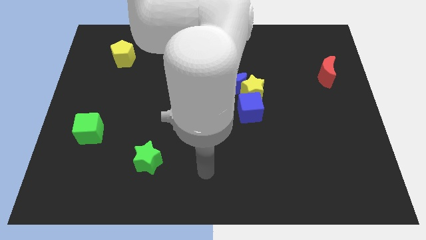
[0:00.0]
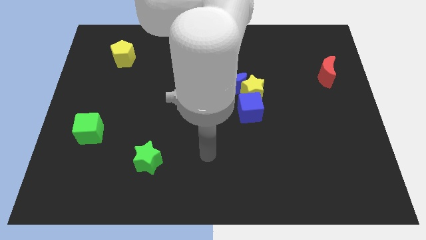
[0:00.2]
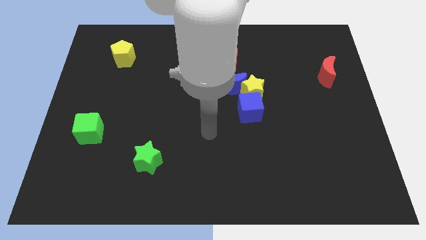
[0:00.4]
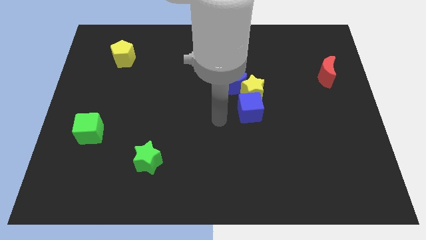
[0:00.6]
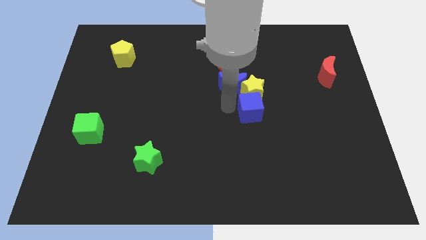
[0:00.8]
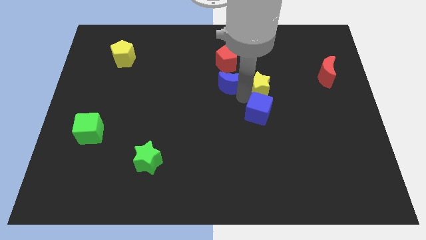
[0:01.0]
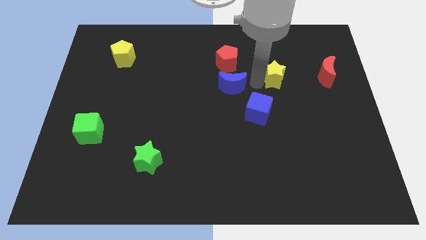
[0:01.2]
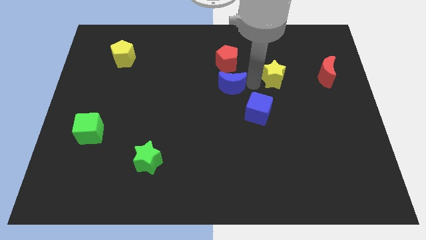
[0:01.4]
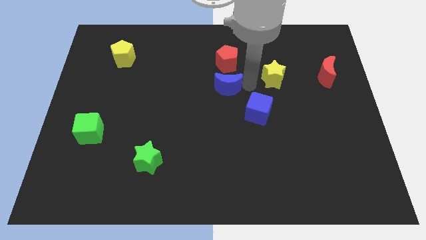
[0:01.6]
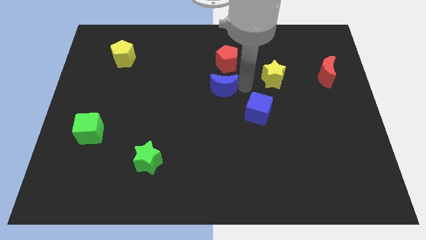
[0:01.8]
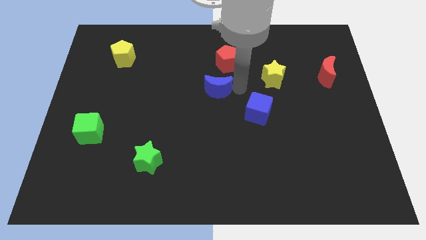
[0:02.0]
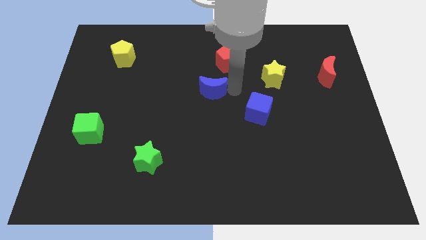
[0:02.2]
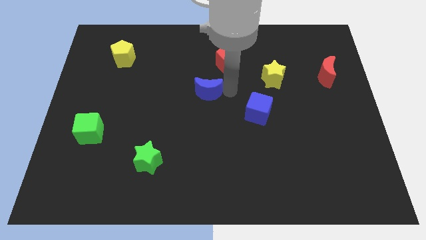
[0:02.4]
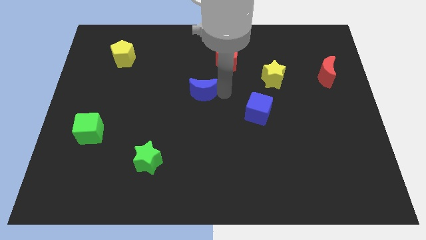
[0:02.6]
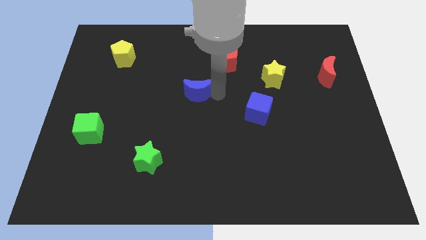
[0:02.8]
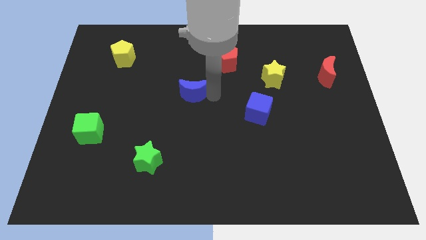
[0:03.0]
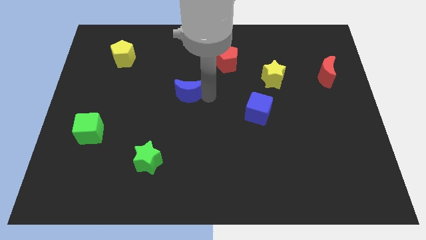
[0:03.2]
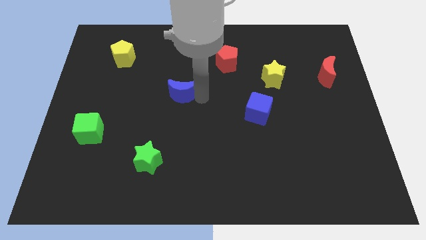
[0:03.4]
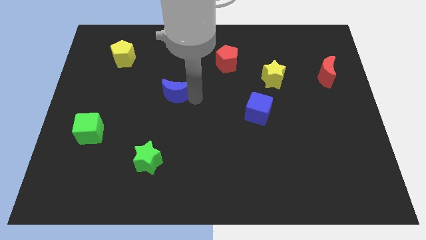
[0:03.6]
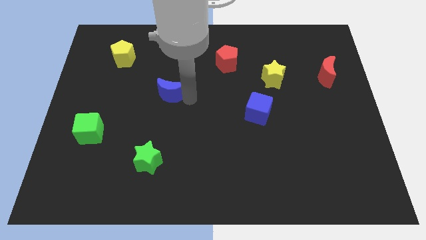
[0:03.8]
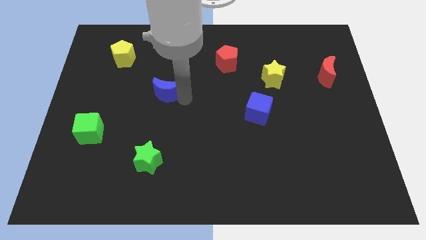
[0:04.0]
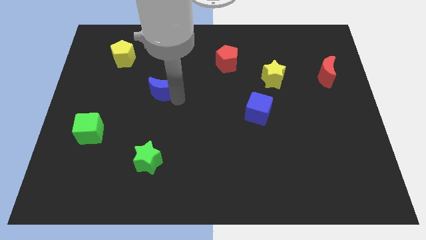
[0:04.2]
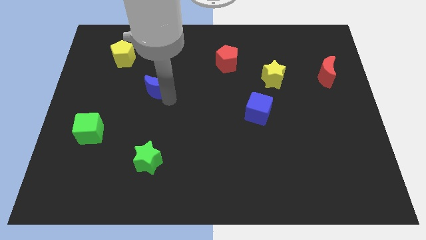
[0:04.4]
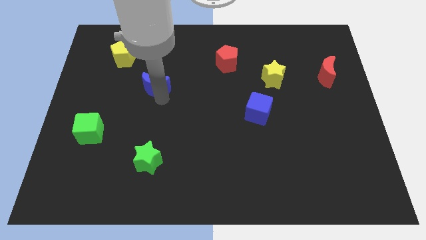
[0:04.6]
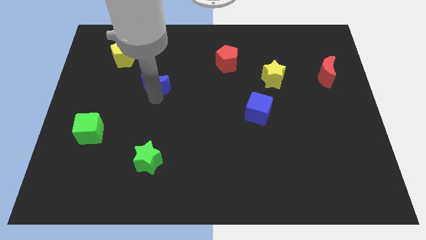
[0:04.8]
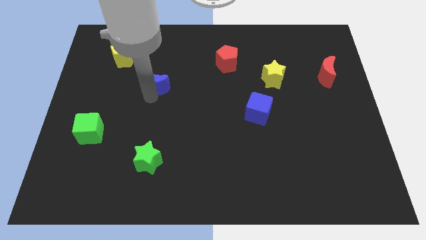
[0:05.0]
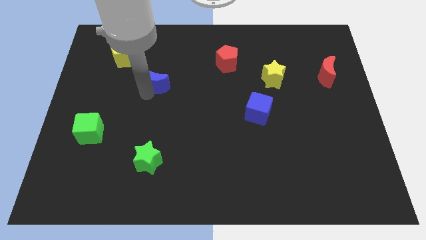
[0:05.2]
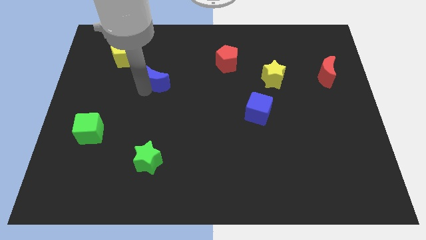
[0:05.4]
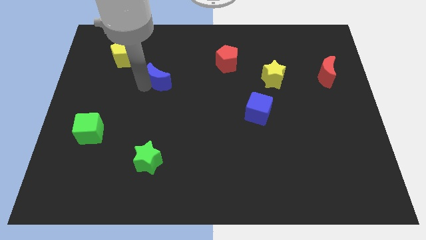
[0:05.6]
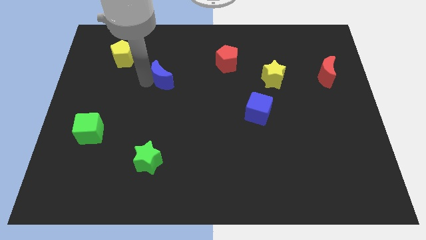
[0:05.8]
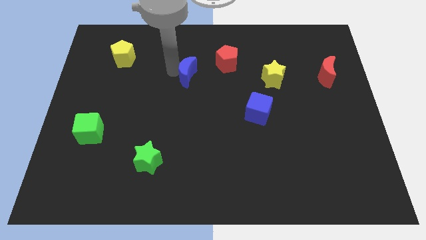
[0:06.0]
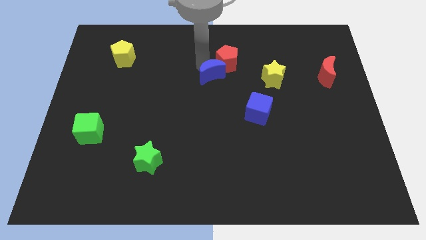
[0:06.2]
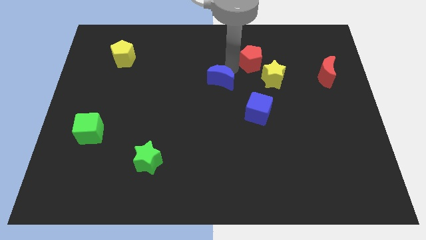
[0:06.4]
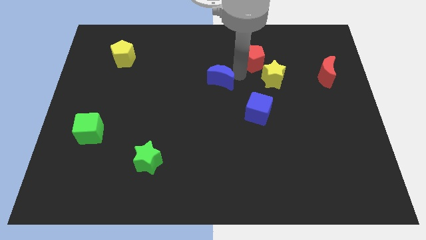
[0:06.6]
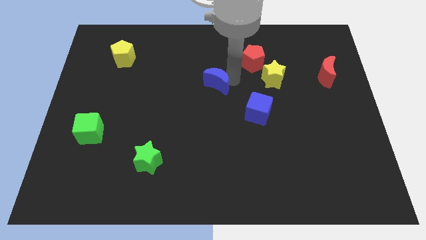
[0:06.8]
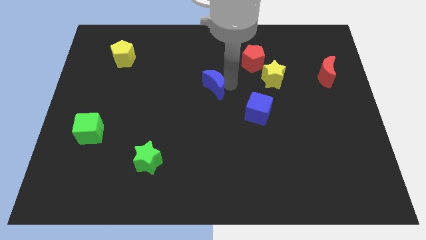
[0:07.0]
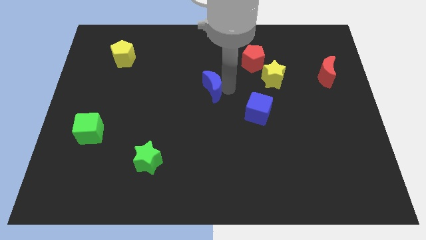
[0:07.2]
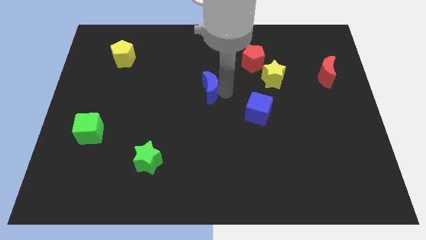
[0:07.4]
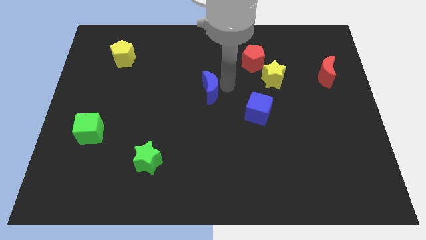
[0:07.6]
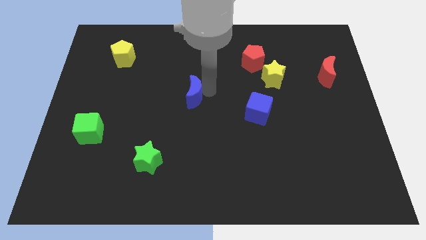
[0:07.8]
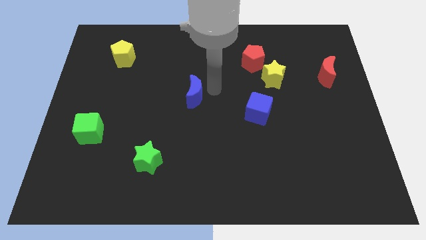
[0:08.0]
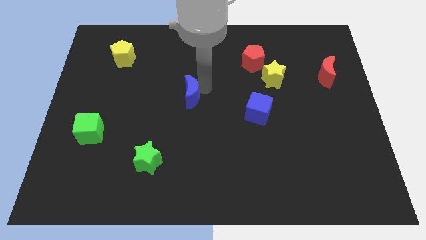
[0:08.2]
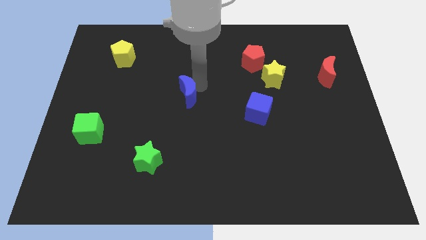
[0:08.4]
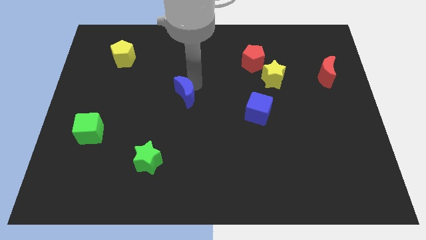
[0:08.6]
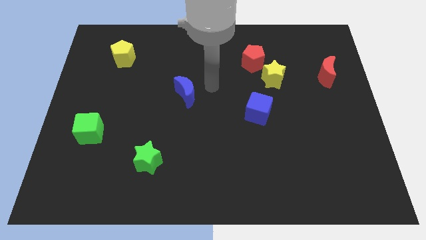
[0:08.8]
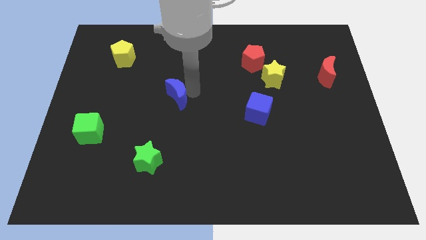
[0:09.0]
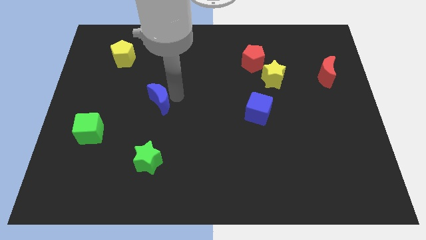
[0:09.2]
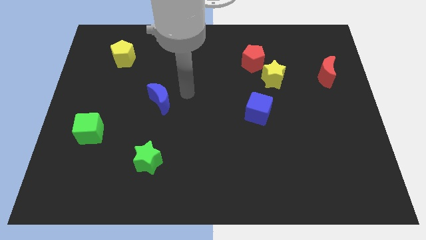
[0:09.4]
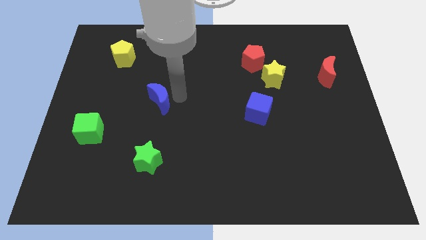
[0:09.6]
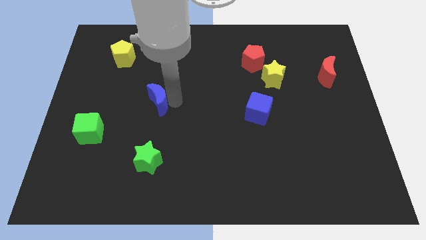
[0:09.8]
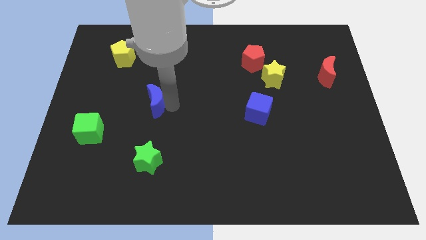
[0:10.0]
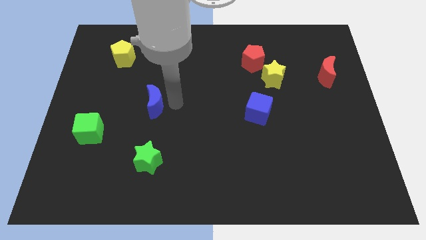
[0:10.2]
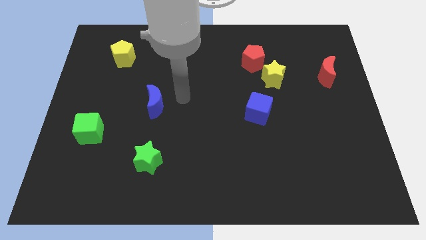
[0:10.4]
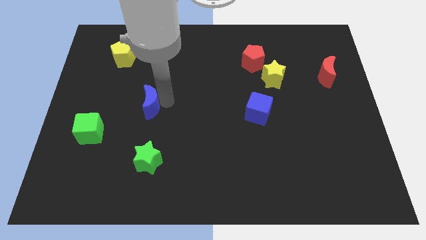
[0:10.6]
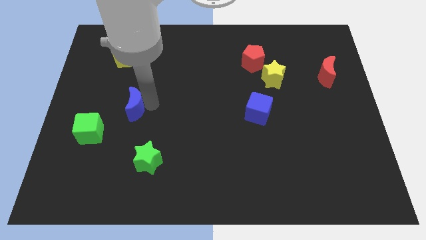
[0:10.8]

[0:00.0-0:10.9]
put the blue moon to the top right side of the green cube

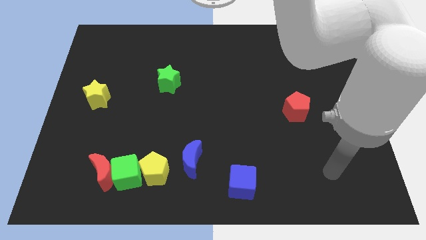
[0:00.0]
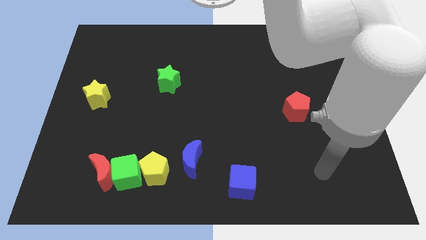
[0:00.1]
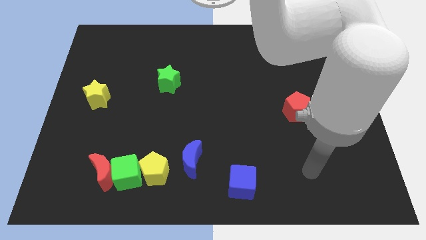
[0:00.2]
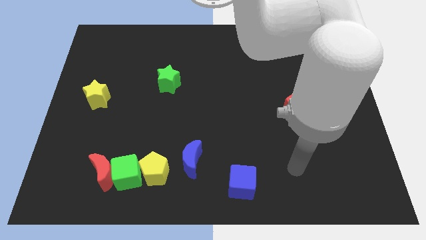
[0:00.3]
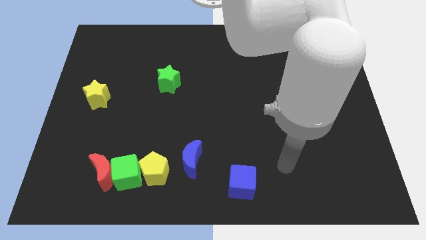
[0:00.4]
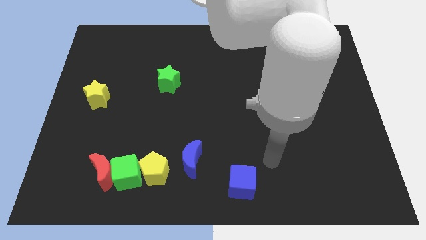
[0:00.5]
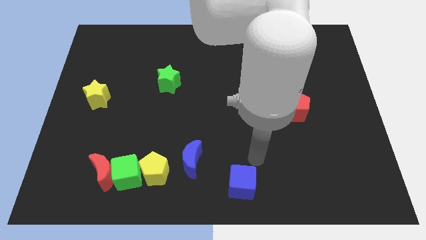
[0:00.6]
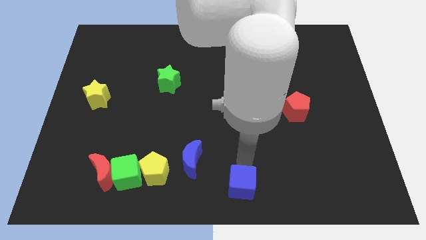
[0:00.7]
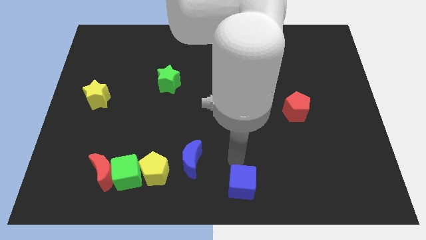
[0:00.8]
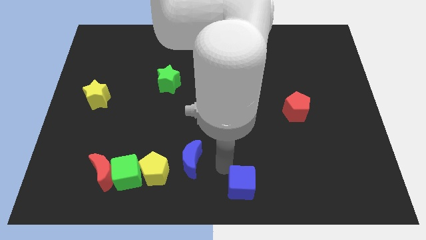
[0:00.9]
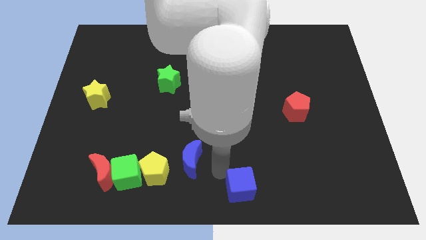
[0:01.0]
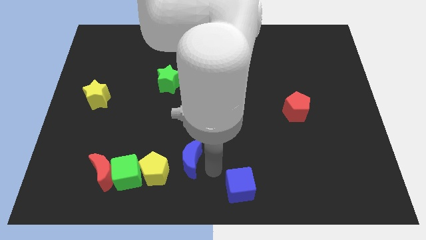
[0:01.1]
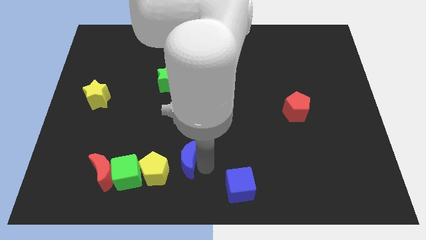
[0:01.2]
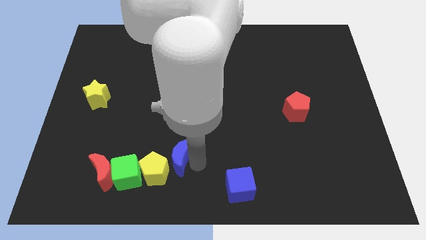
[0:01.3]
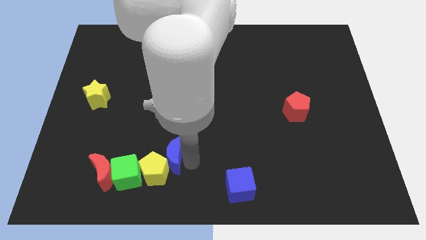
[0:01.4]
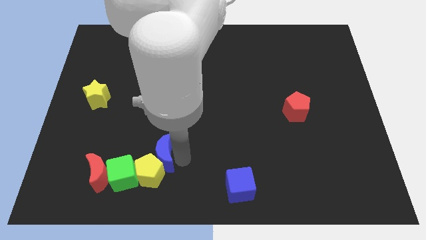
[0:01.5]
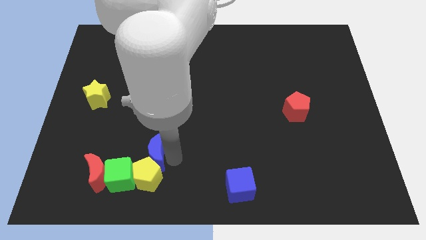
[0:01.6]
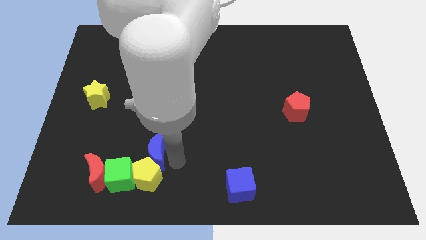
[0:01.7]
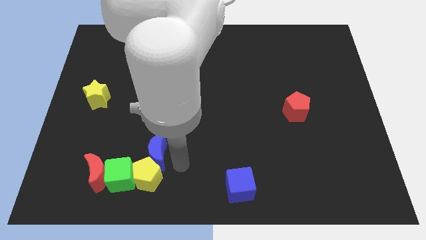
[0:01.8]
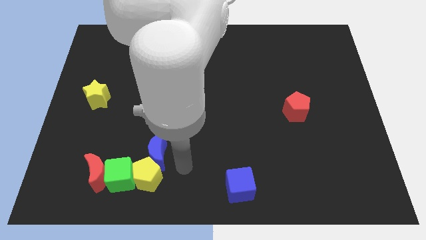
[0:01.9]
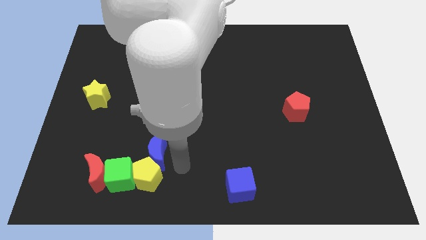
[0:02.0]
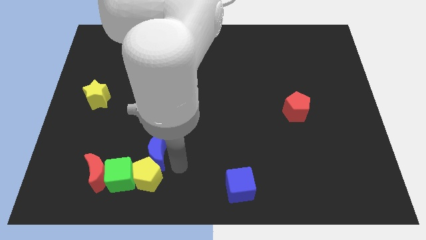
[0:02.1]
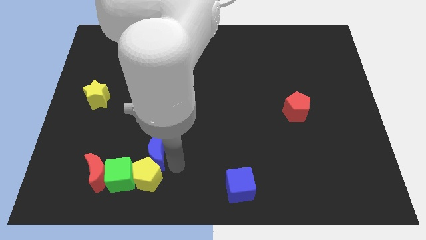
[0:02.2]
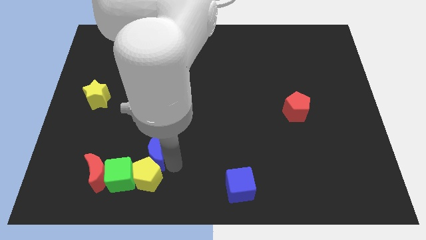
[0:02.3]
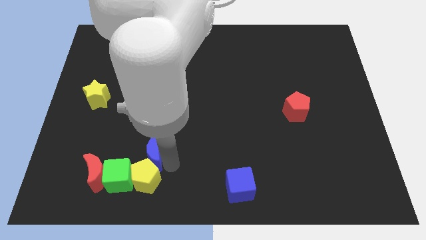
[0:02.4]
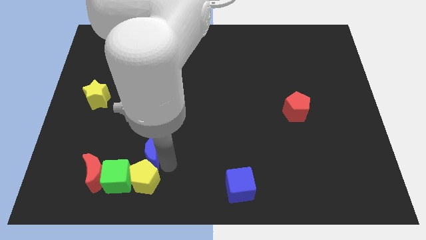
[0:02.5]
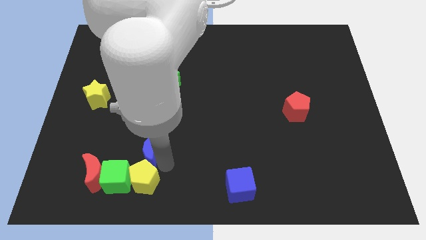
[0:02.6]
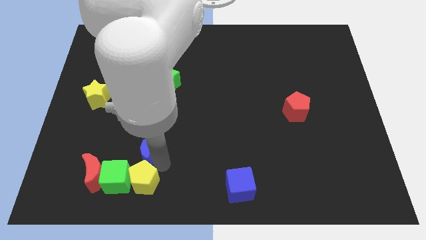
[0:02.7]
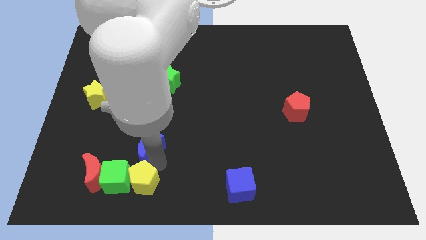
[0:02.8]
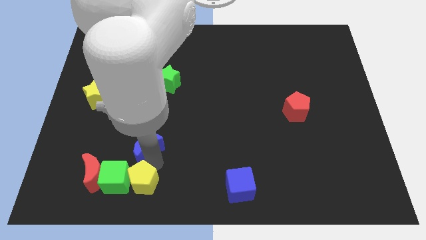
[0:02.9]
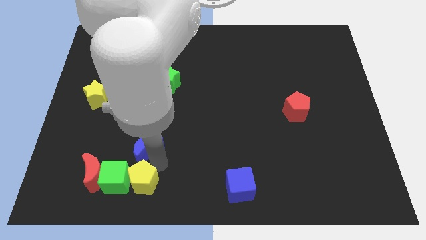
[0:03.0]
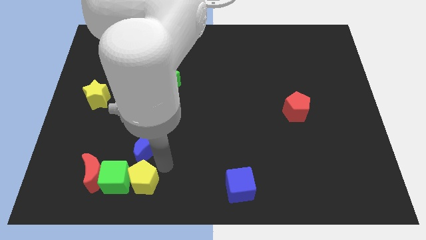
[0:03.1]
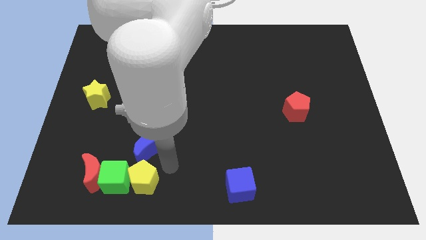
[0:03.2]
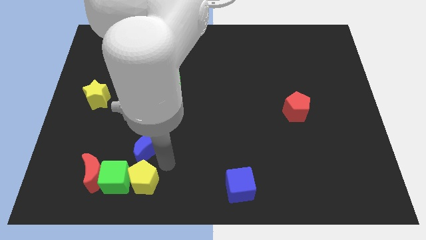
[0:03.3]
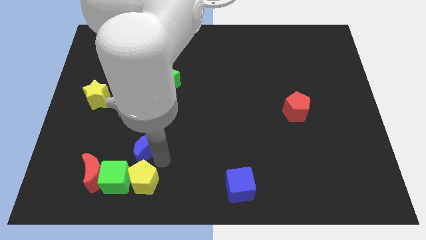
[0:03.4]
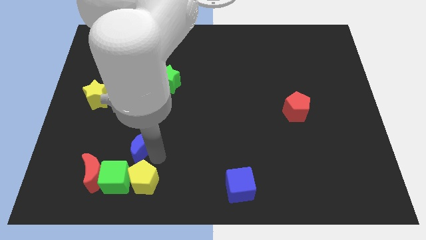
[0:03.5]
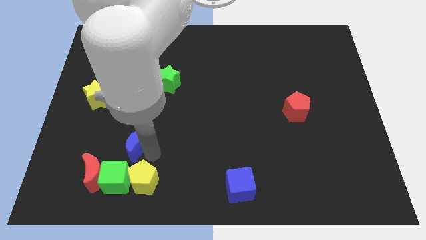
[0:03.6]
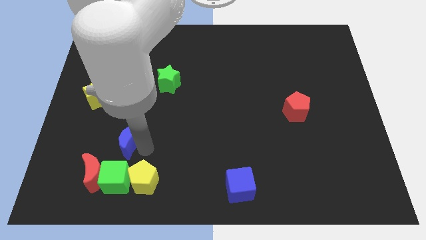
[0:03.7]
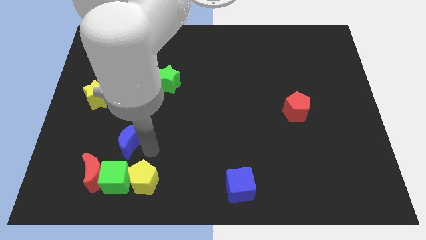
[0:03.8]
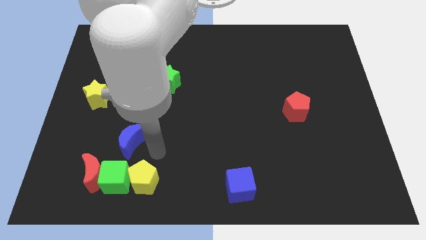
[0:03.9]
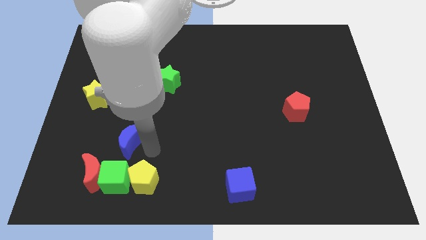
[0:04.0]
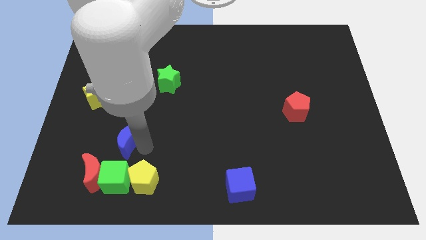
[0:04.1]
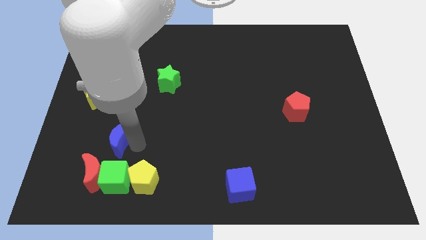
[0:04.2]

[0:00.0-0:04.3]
move the blue moon to the top of the red moon
